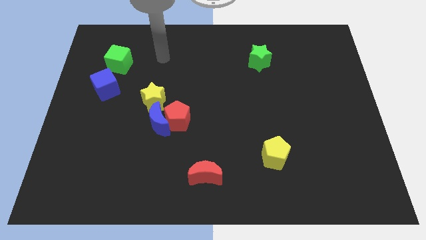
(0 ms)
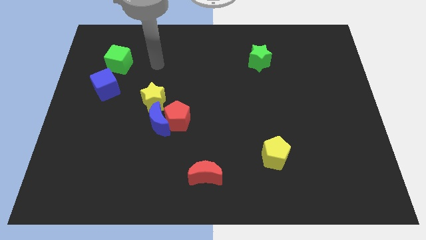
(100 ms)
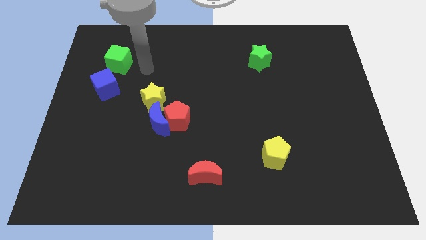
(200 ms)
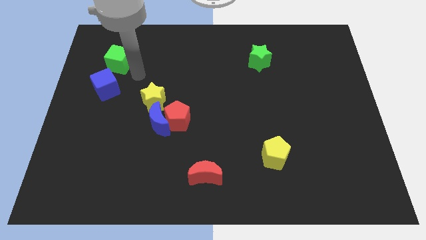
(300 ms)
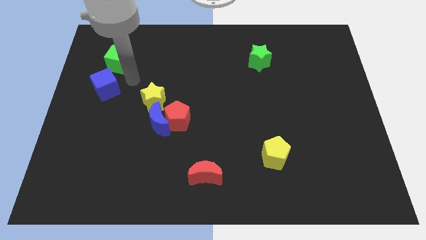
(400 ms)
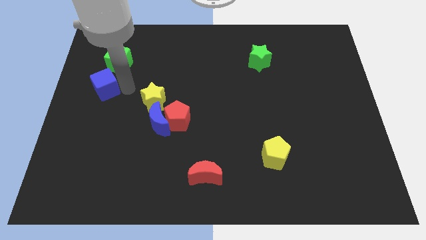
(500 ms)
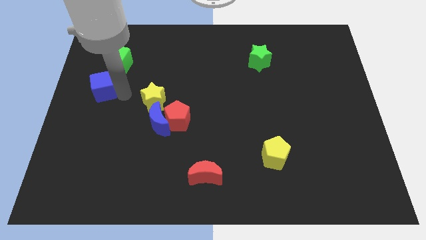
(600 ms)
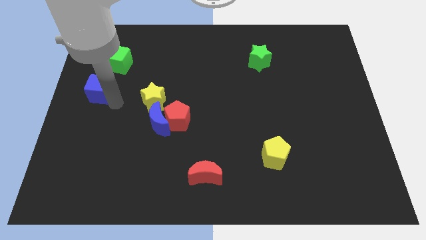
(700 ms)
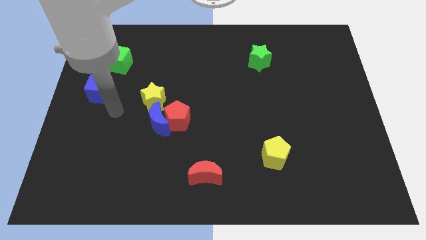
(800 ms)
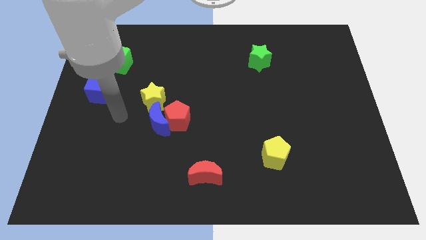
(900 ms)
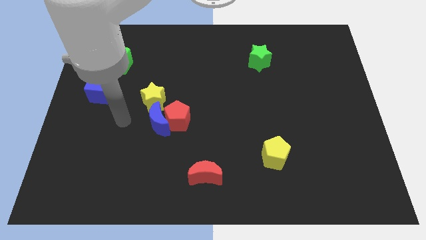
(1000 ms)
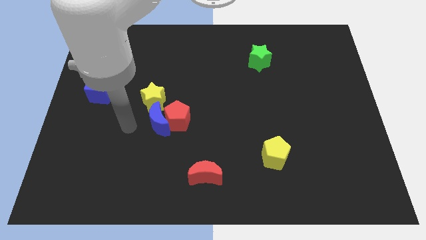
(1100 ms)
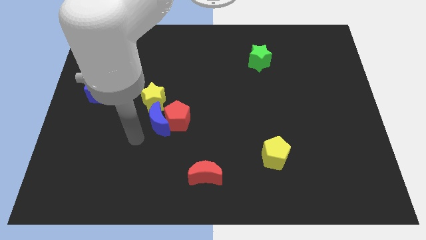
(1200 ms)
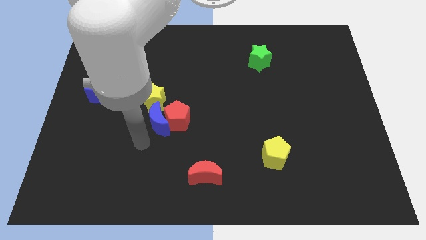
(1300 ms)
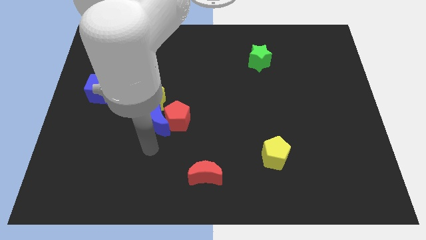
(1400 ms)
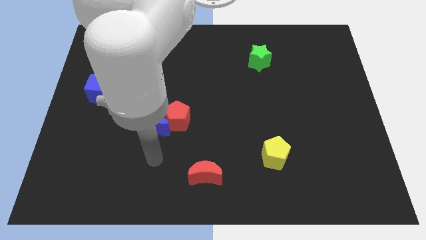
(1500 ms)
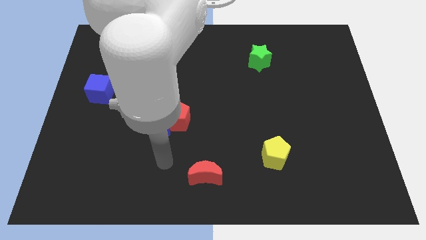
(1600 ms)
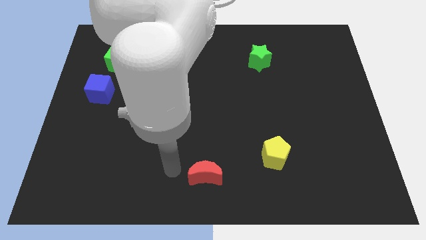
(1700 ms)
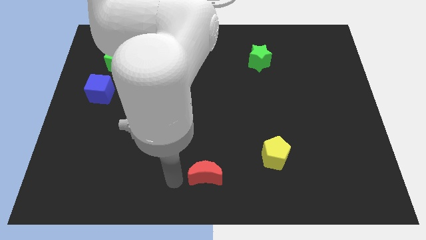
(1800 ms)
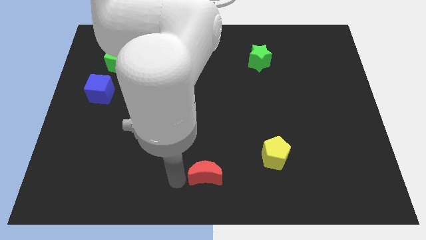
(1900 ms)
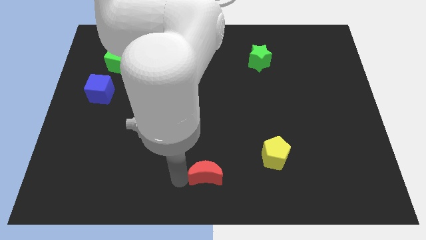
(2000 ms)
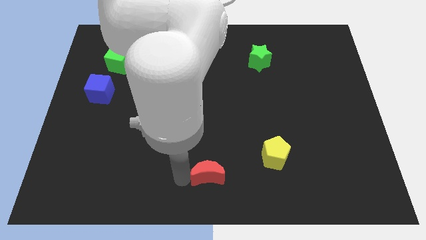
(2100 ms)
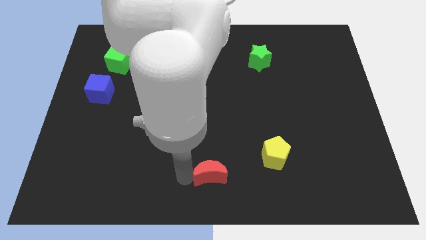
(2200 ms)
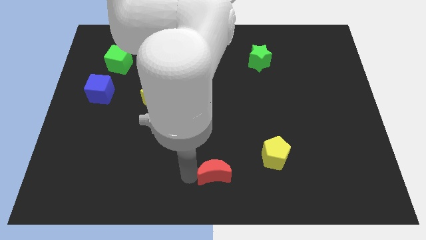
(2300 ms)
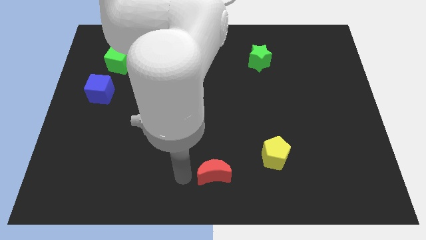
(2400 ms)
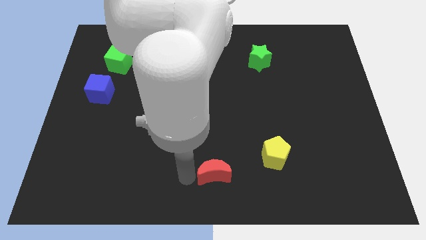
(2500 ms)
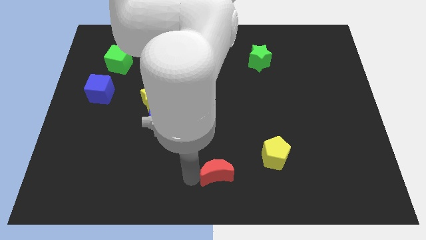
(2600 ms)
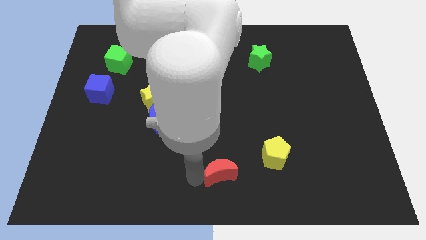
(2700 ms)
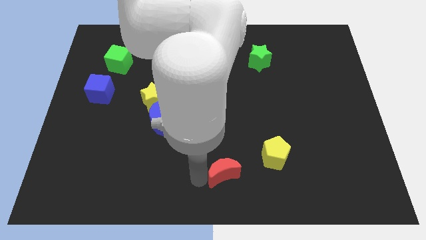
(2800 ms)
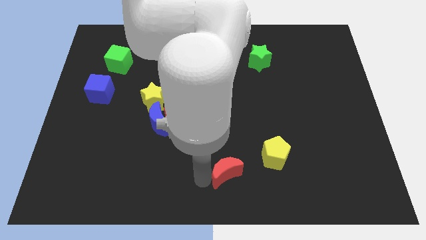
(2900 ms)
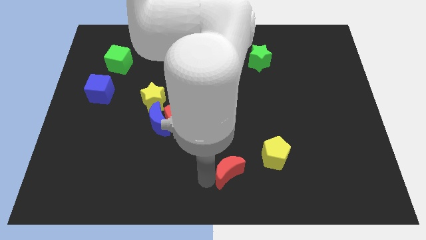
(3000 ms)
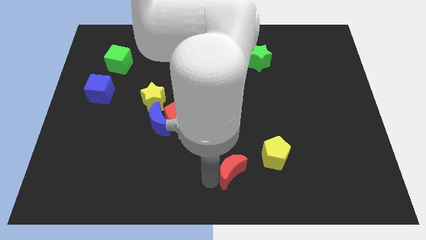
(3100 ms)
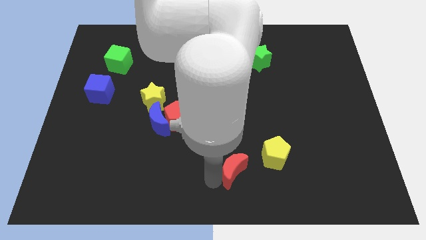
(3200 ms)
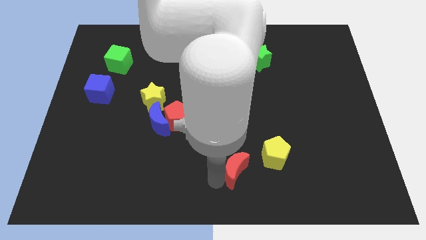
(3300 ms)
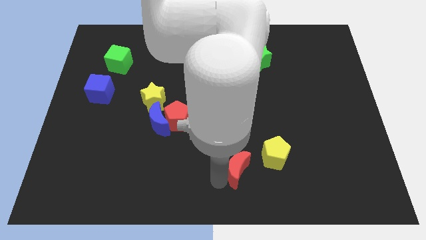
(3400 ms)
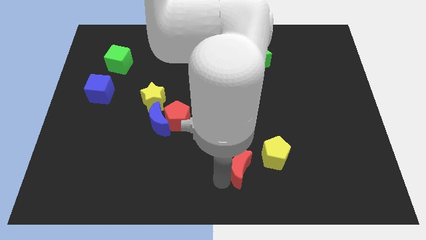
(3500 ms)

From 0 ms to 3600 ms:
slide the red moon right somewhat

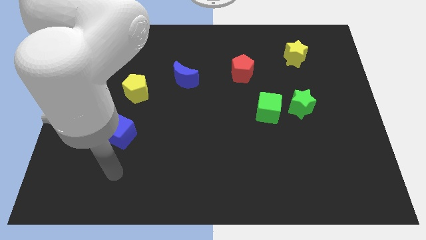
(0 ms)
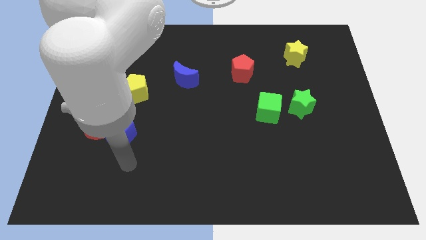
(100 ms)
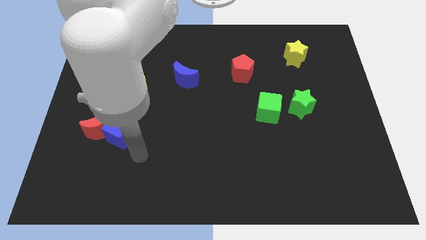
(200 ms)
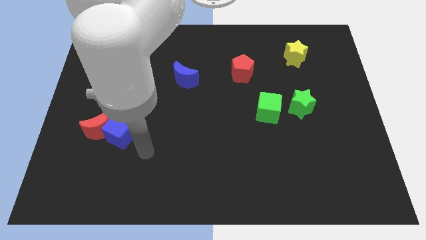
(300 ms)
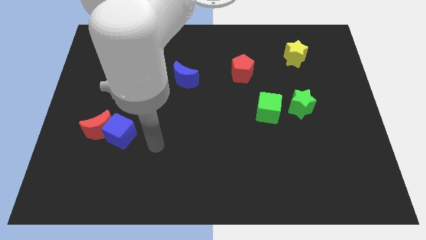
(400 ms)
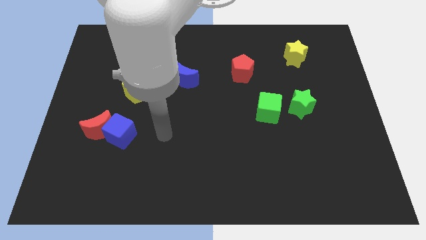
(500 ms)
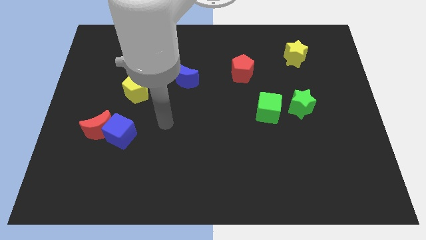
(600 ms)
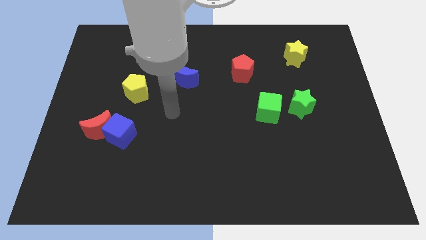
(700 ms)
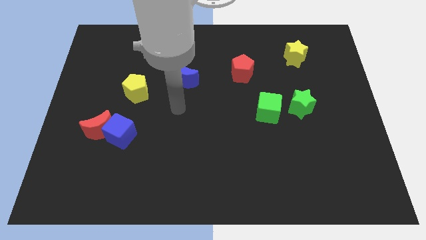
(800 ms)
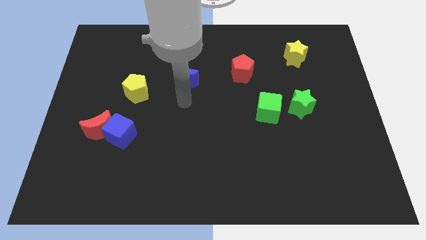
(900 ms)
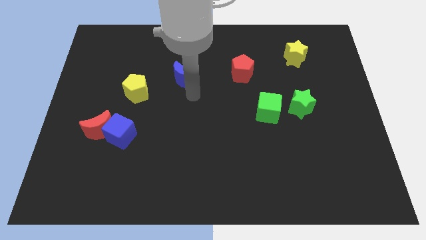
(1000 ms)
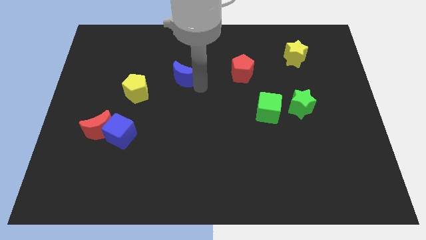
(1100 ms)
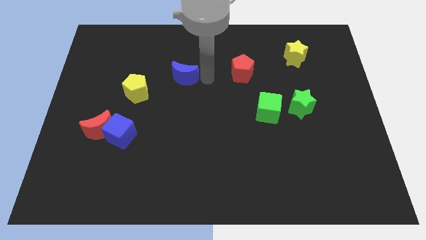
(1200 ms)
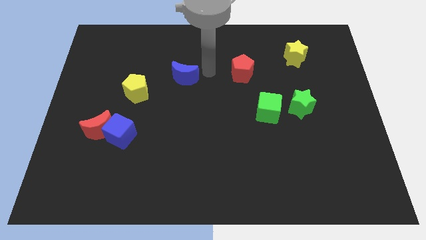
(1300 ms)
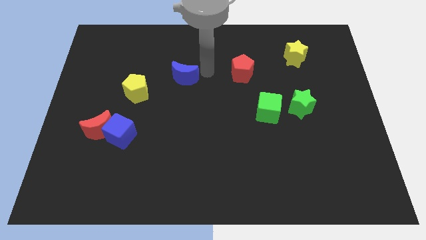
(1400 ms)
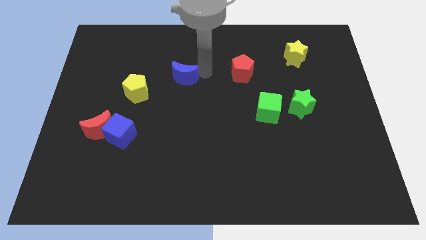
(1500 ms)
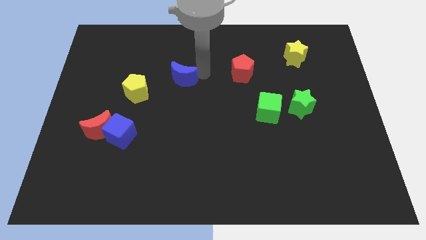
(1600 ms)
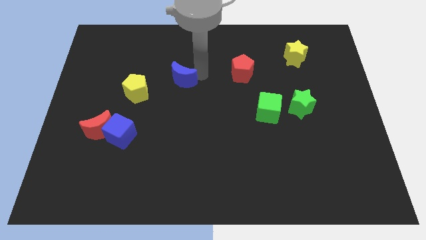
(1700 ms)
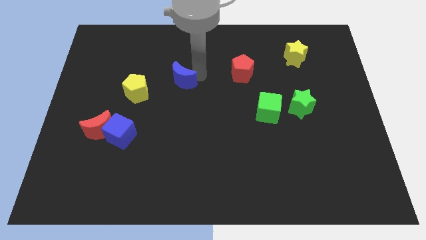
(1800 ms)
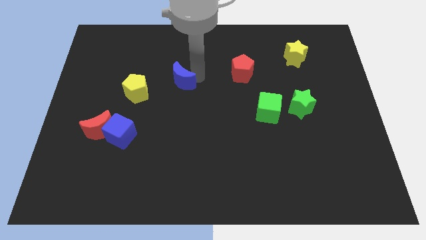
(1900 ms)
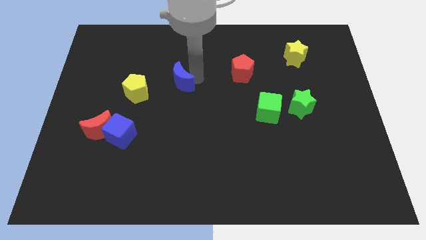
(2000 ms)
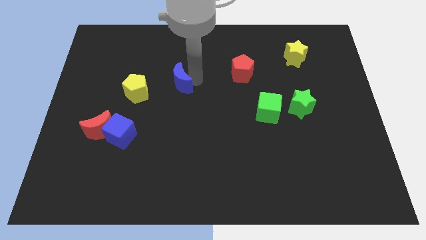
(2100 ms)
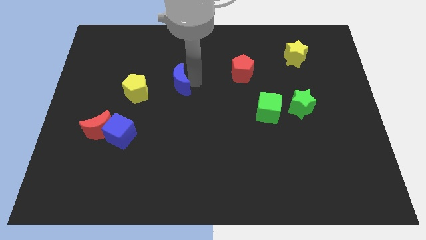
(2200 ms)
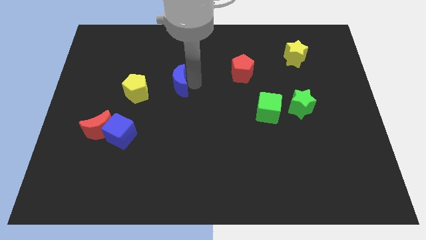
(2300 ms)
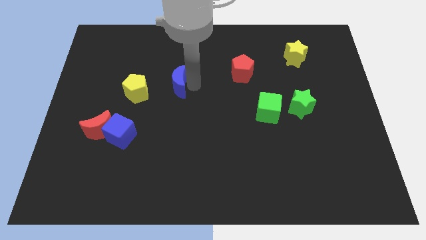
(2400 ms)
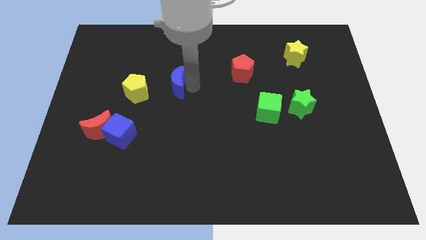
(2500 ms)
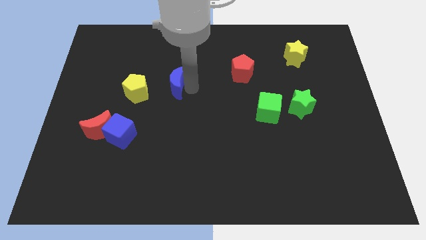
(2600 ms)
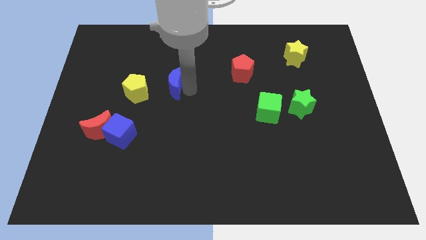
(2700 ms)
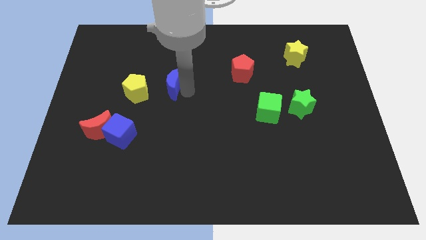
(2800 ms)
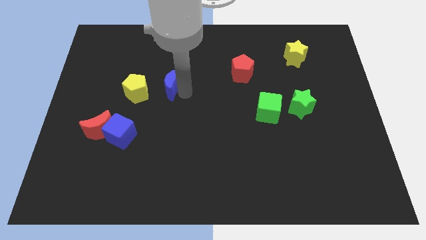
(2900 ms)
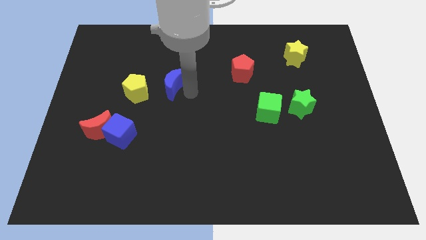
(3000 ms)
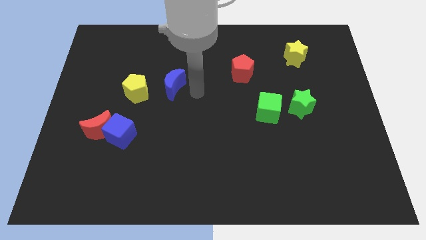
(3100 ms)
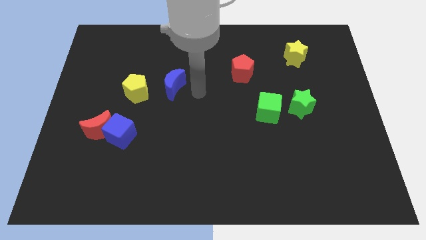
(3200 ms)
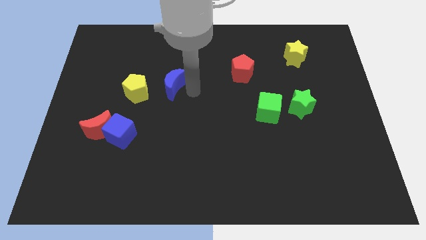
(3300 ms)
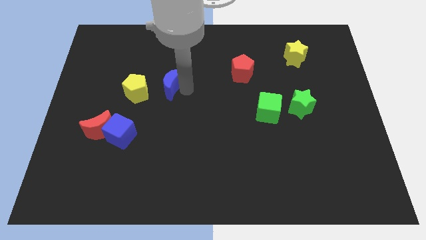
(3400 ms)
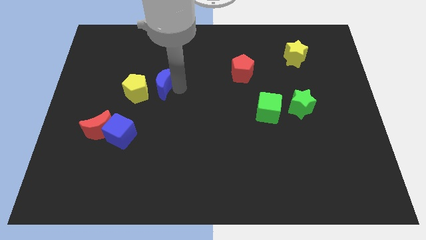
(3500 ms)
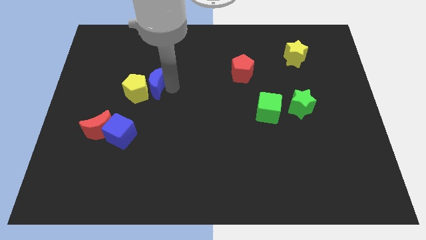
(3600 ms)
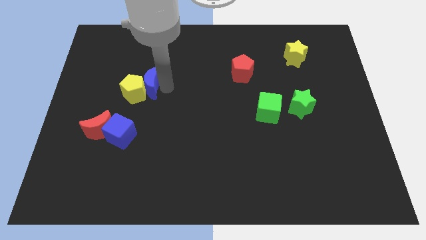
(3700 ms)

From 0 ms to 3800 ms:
slightly slide the blue moon left

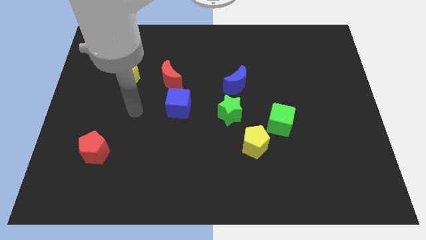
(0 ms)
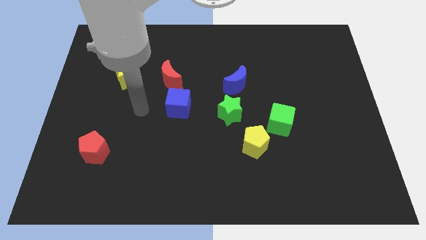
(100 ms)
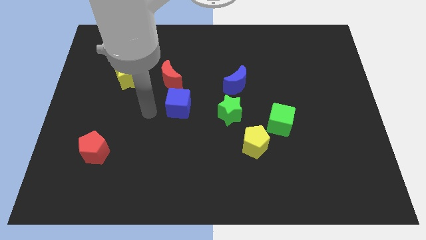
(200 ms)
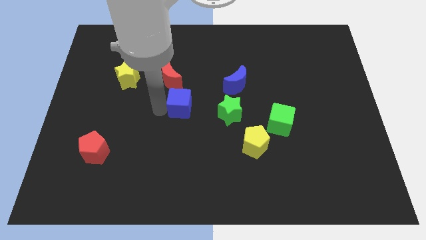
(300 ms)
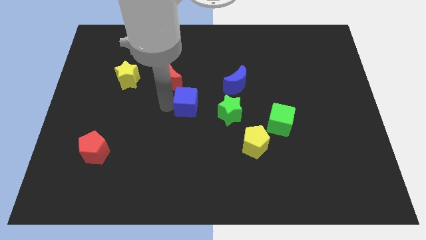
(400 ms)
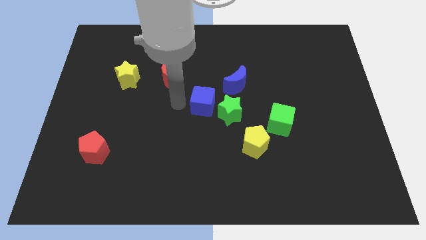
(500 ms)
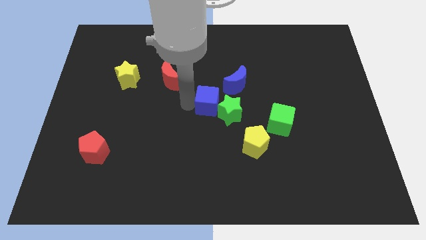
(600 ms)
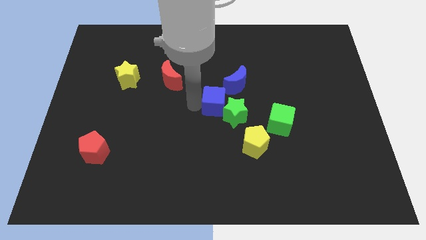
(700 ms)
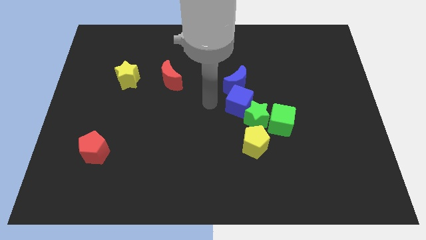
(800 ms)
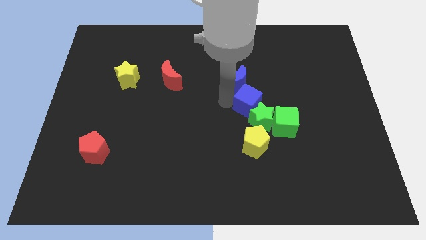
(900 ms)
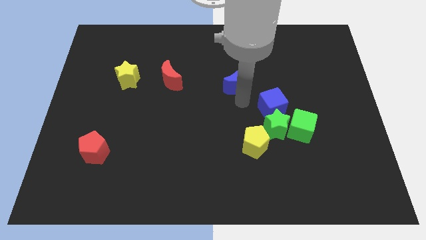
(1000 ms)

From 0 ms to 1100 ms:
push the green star diagonally downwards and to the right slightly

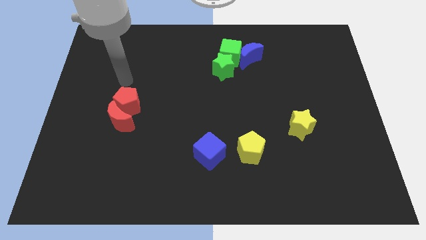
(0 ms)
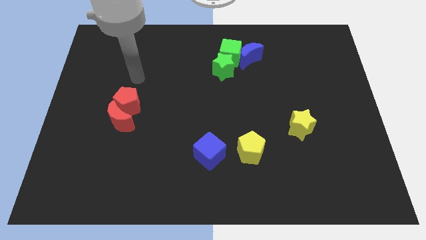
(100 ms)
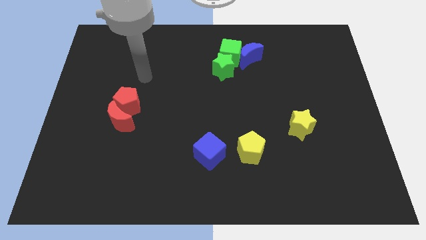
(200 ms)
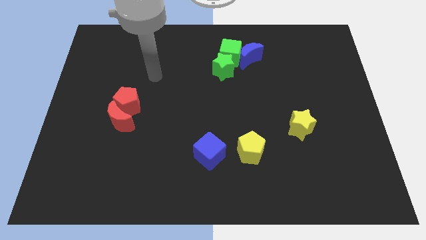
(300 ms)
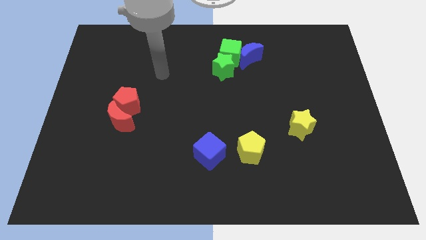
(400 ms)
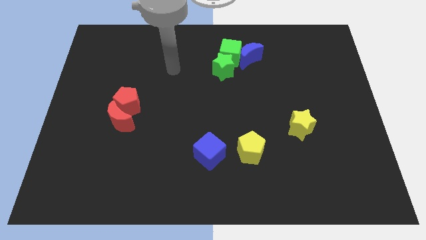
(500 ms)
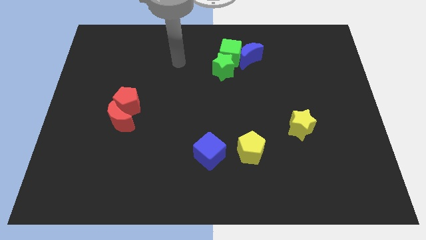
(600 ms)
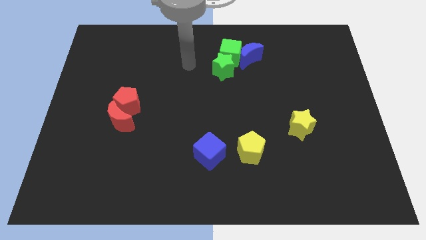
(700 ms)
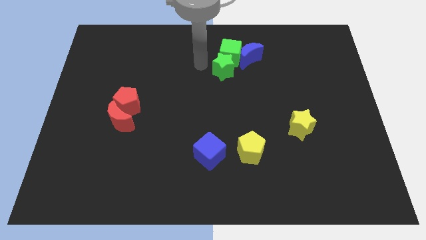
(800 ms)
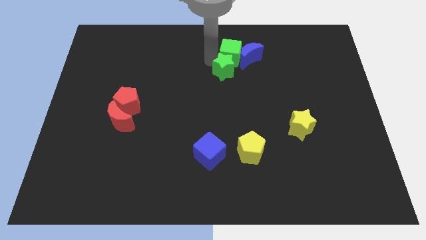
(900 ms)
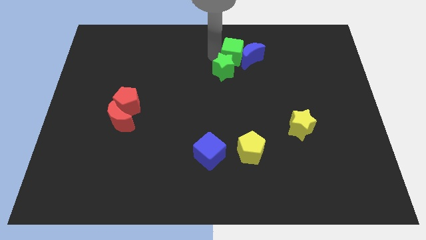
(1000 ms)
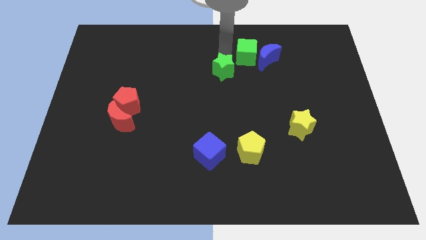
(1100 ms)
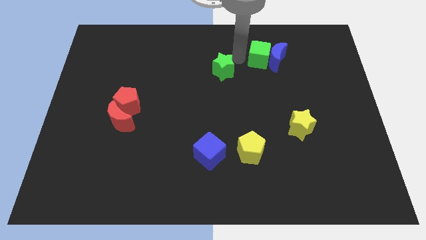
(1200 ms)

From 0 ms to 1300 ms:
push the blue moon a bit right
